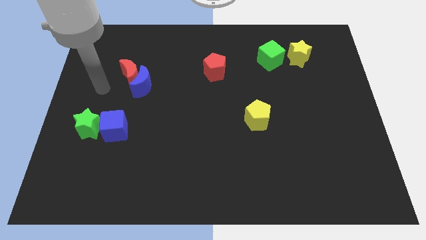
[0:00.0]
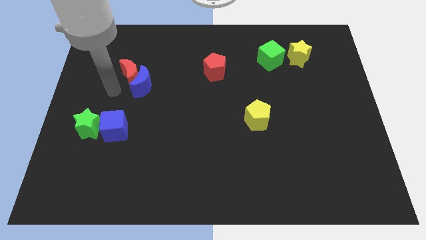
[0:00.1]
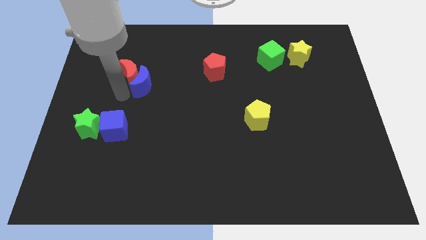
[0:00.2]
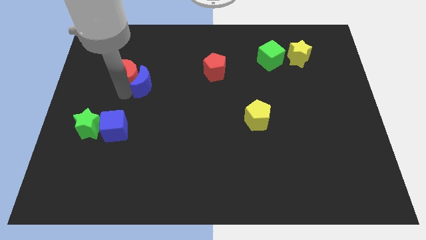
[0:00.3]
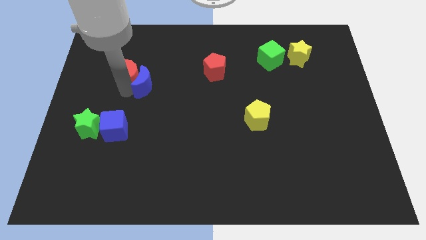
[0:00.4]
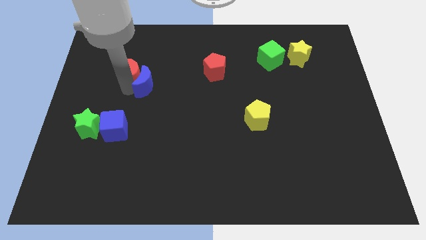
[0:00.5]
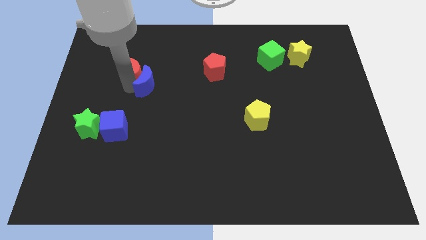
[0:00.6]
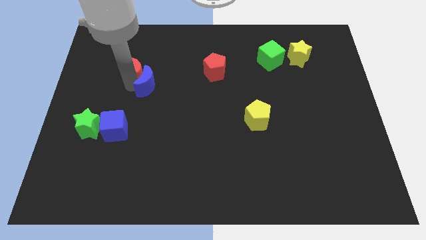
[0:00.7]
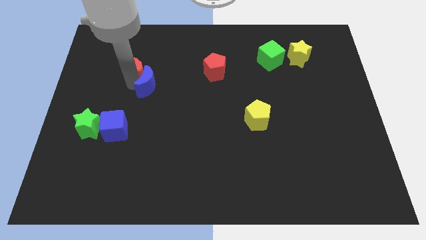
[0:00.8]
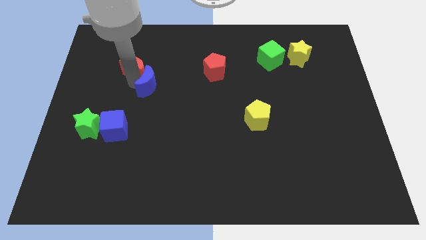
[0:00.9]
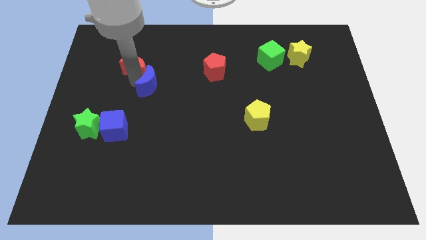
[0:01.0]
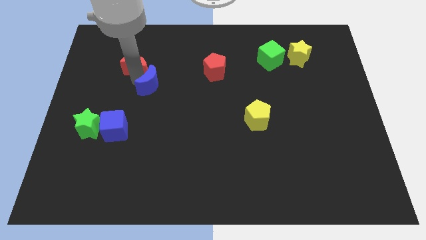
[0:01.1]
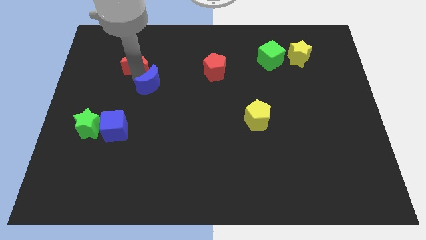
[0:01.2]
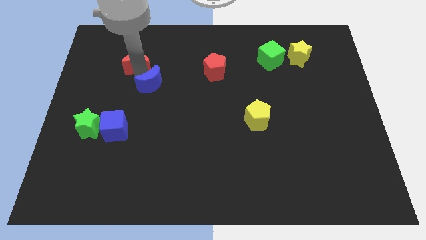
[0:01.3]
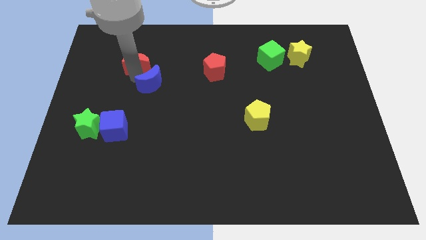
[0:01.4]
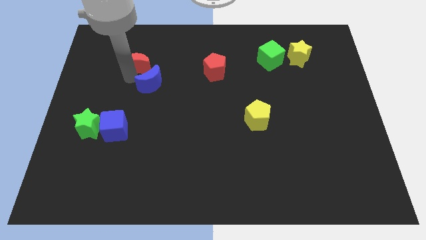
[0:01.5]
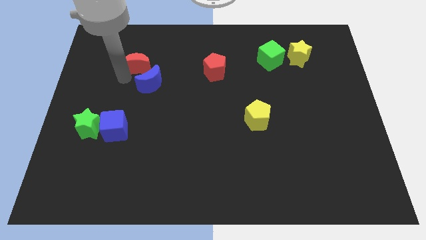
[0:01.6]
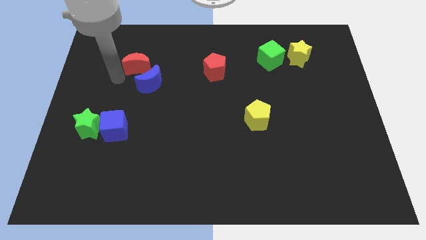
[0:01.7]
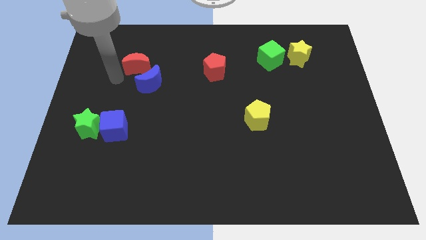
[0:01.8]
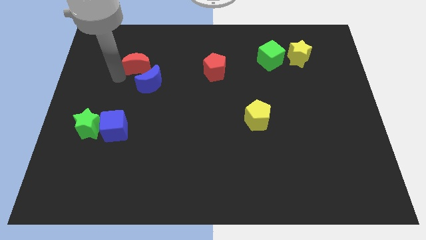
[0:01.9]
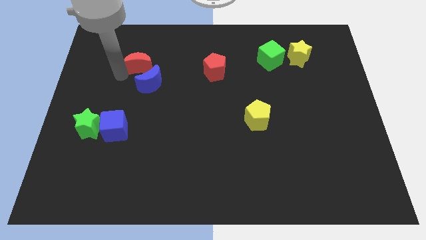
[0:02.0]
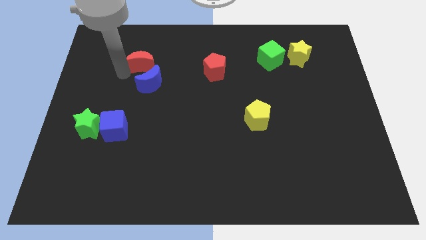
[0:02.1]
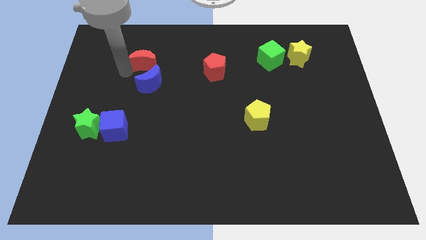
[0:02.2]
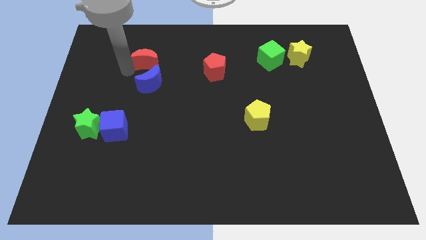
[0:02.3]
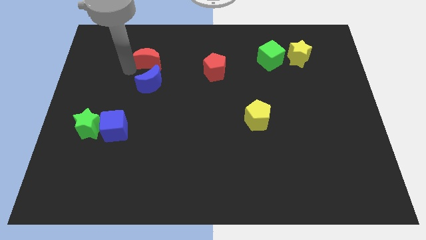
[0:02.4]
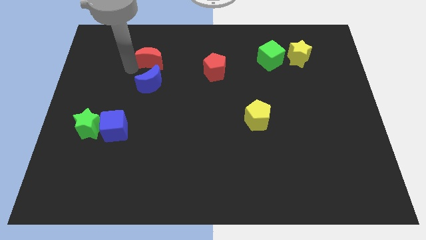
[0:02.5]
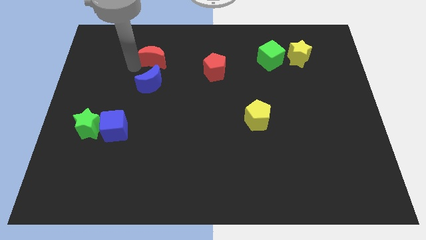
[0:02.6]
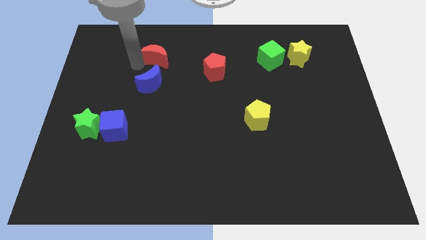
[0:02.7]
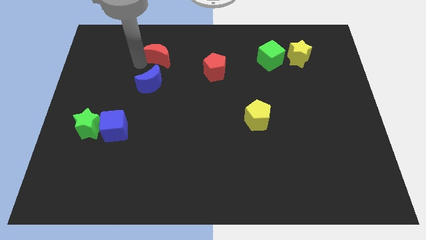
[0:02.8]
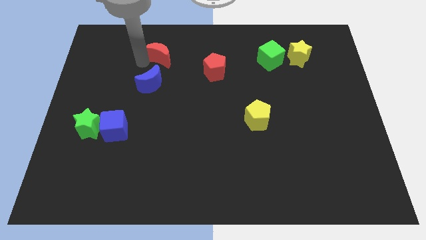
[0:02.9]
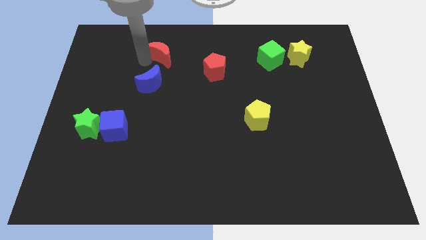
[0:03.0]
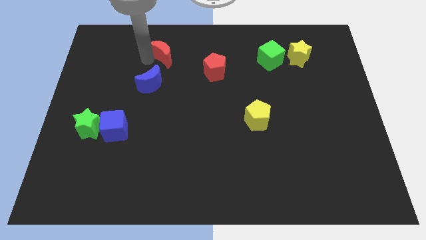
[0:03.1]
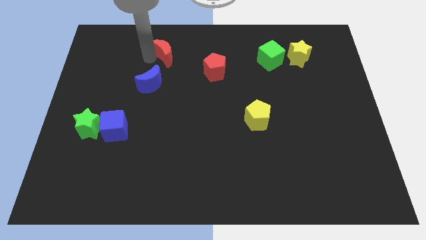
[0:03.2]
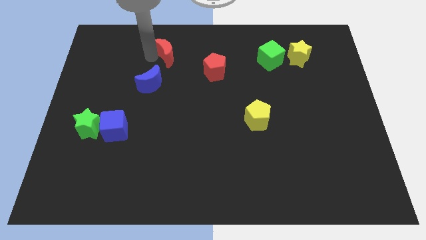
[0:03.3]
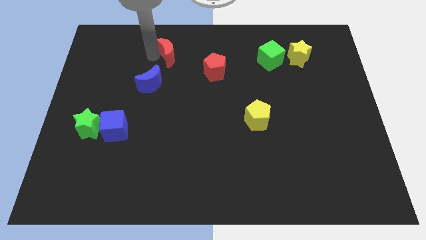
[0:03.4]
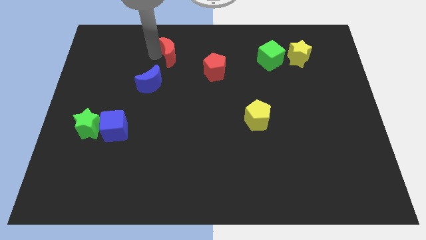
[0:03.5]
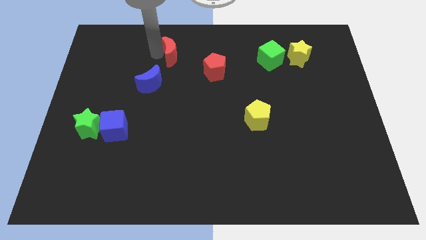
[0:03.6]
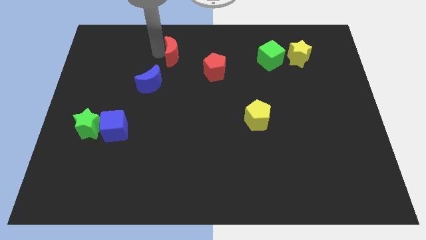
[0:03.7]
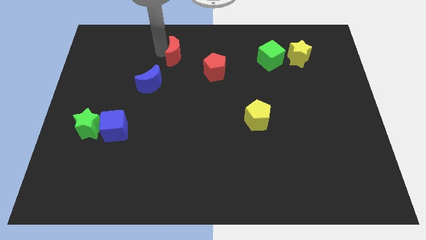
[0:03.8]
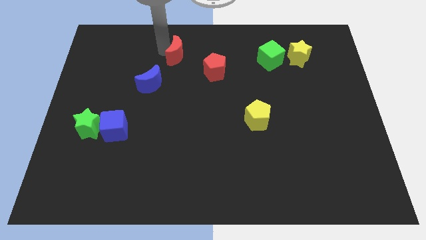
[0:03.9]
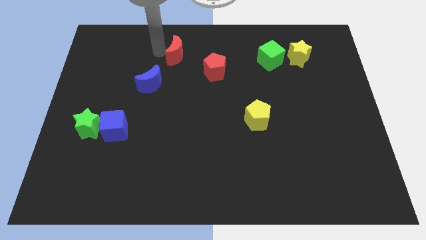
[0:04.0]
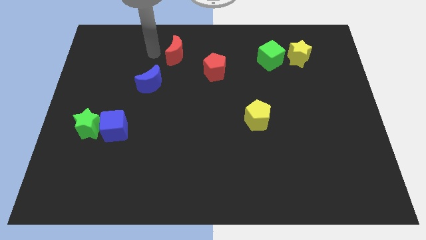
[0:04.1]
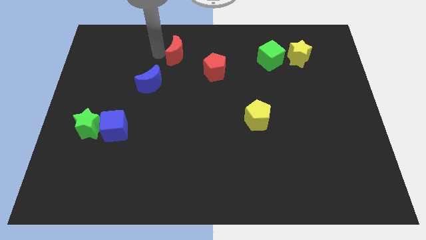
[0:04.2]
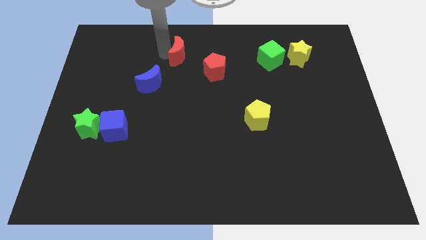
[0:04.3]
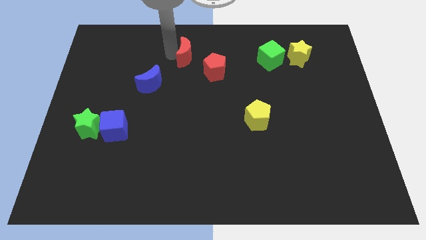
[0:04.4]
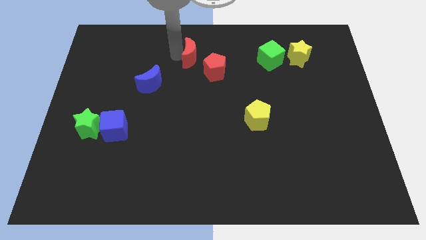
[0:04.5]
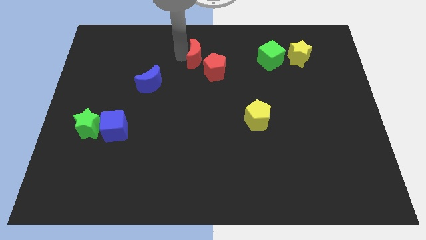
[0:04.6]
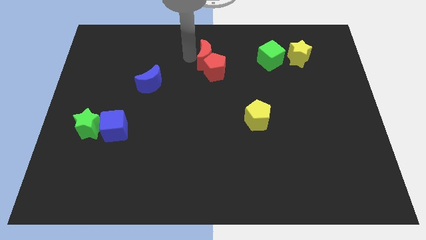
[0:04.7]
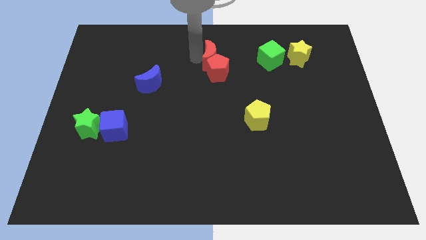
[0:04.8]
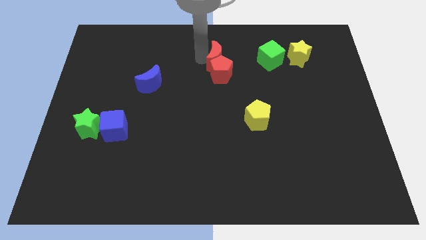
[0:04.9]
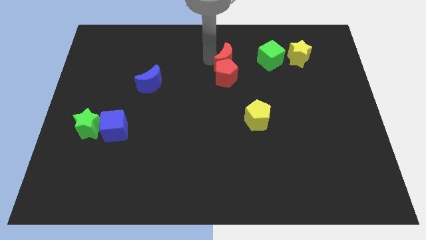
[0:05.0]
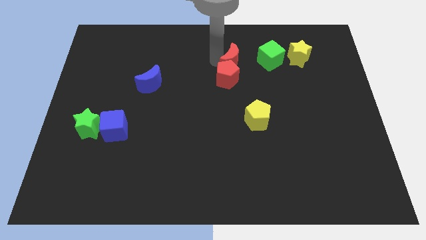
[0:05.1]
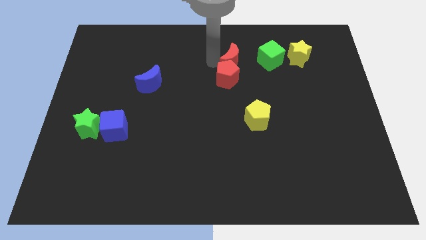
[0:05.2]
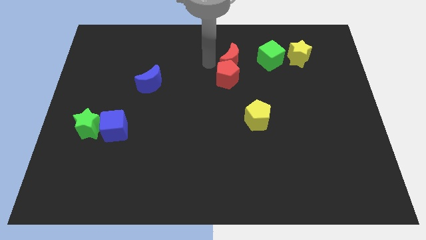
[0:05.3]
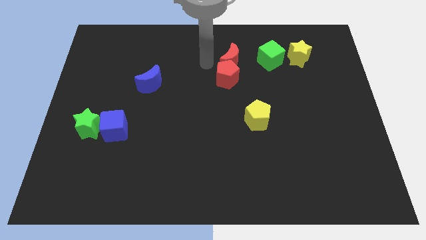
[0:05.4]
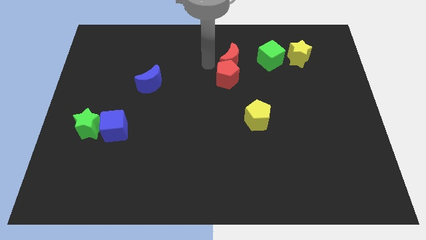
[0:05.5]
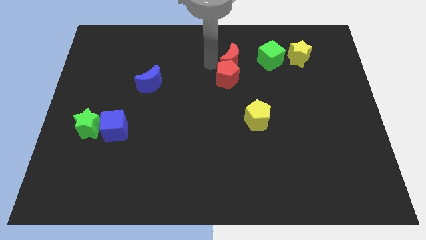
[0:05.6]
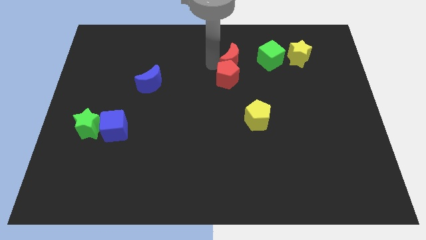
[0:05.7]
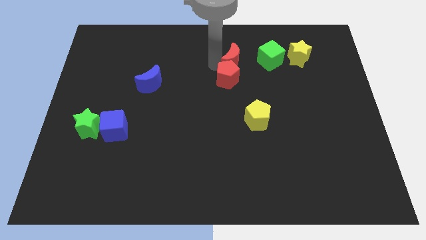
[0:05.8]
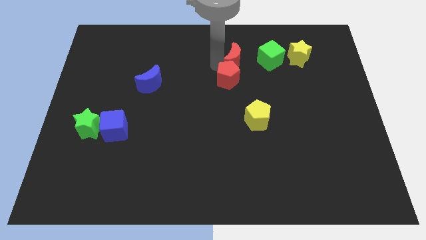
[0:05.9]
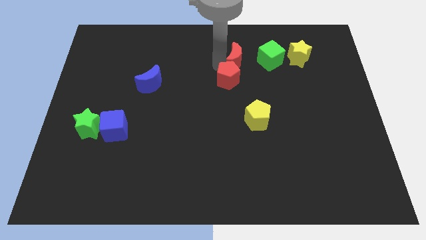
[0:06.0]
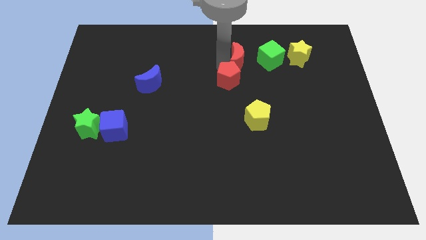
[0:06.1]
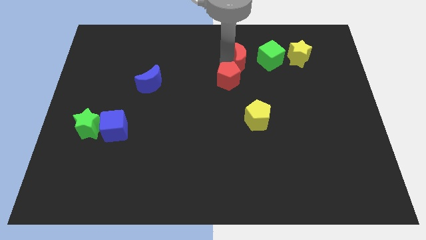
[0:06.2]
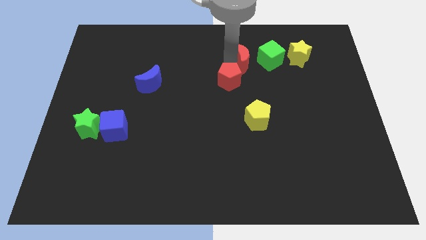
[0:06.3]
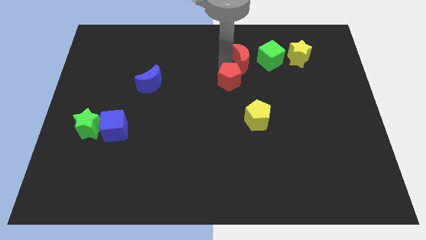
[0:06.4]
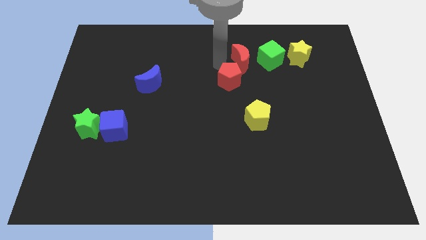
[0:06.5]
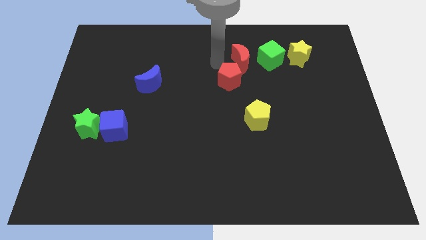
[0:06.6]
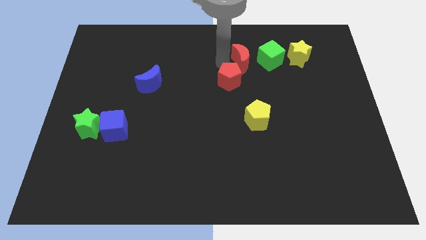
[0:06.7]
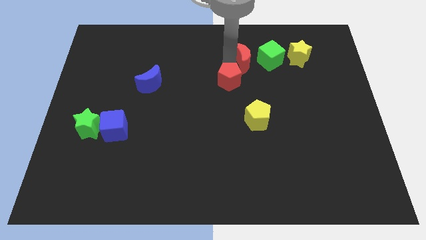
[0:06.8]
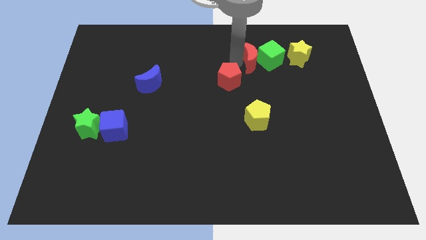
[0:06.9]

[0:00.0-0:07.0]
move the red moon to the green cube

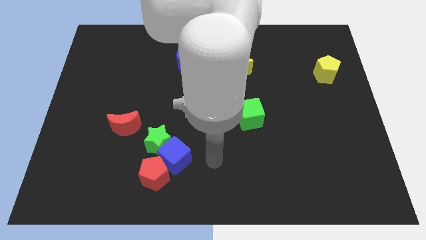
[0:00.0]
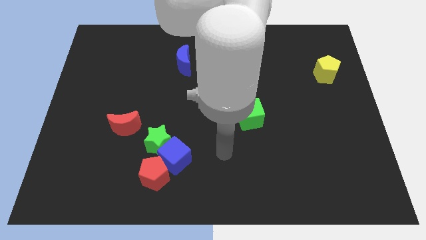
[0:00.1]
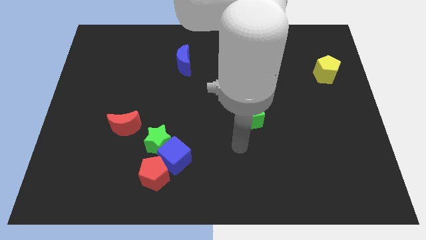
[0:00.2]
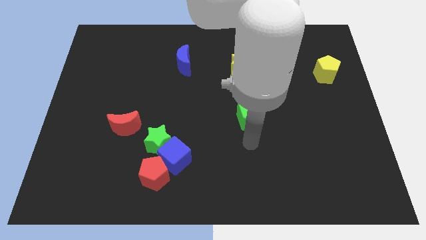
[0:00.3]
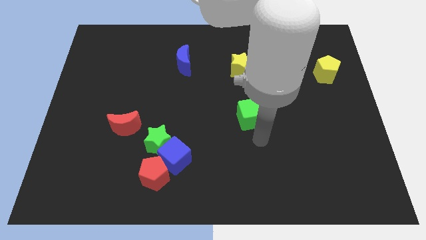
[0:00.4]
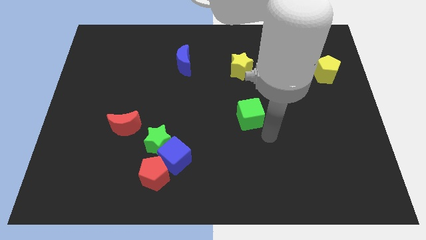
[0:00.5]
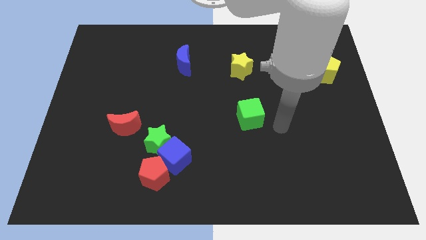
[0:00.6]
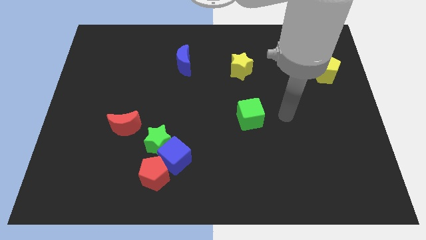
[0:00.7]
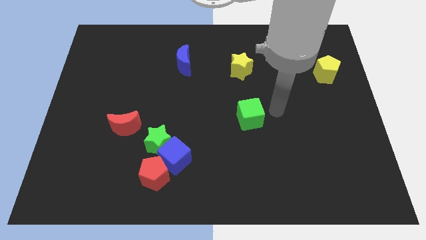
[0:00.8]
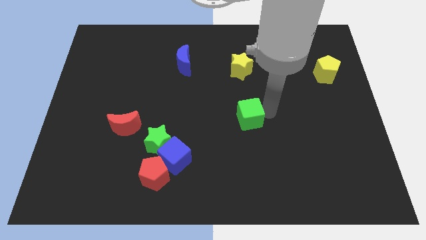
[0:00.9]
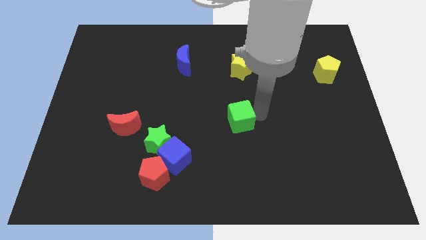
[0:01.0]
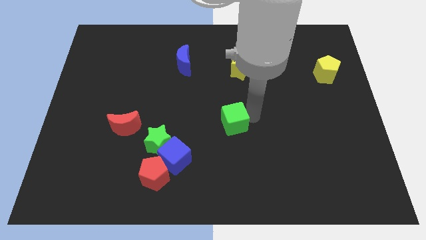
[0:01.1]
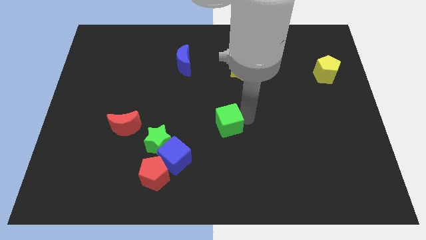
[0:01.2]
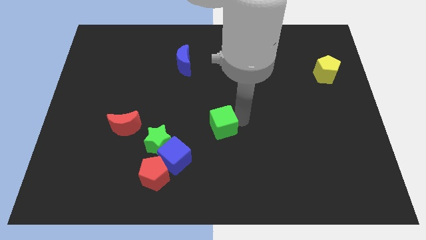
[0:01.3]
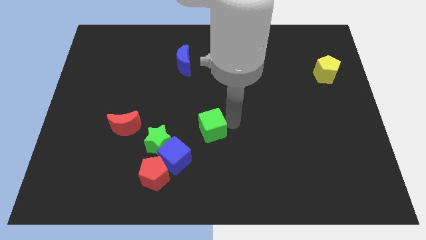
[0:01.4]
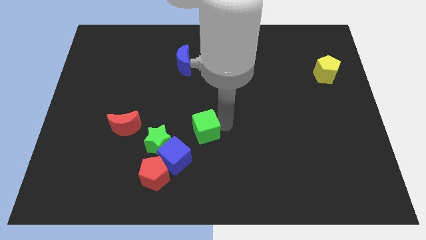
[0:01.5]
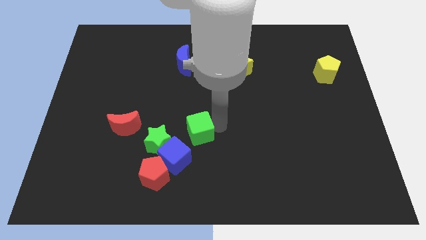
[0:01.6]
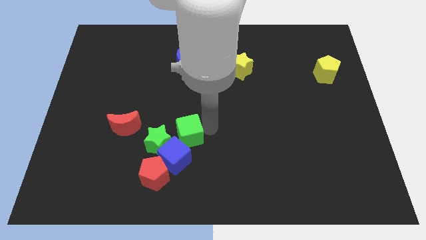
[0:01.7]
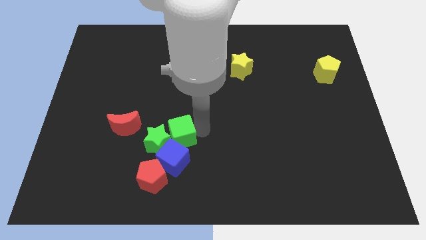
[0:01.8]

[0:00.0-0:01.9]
slide the green cube to the green star
